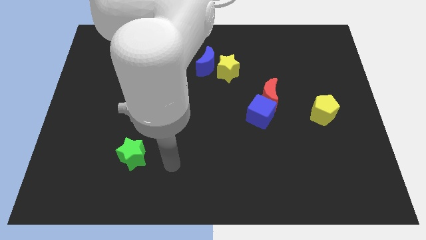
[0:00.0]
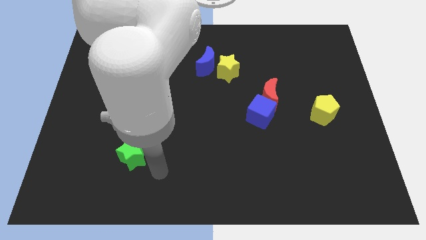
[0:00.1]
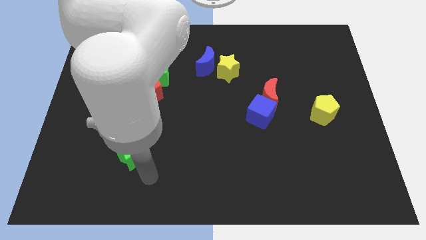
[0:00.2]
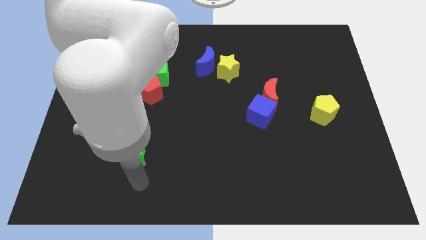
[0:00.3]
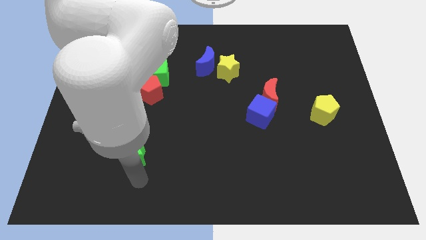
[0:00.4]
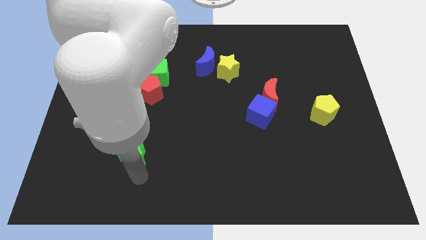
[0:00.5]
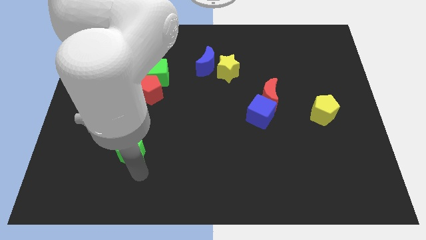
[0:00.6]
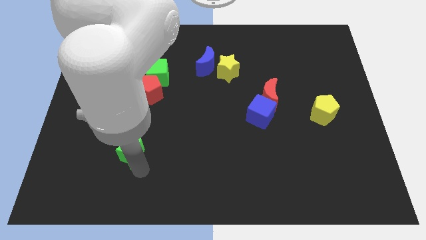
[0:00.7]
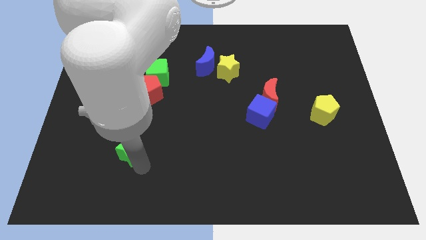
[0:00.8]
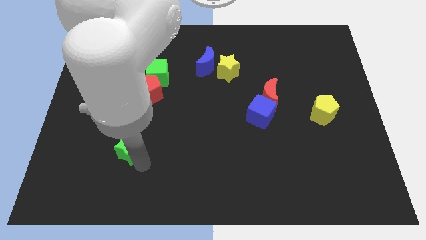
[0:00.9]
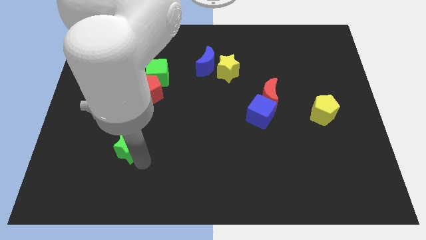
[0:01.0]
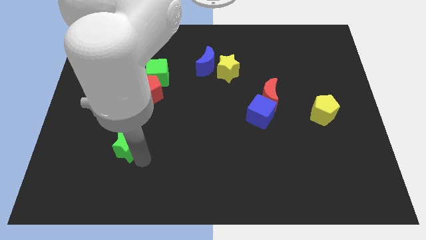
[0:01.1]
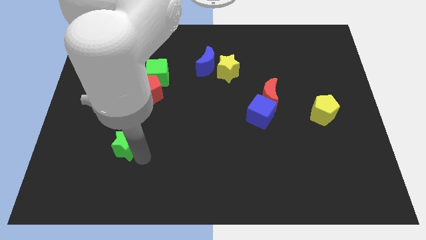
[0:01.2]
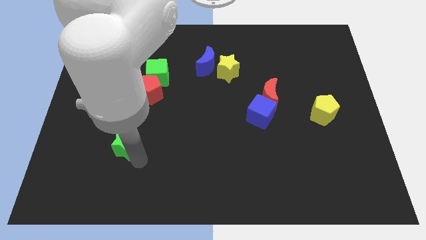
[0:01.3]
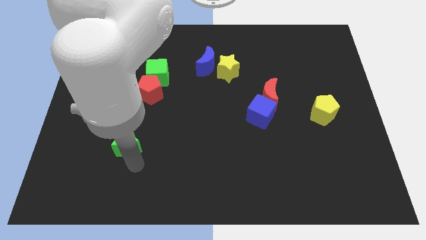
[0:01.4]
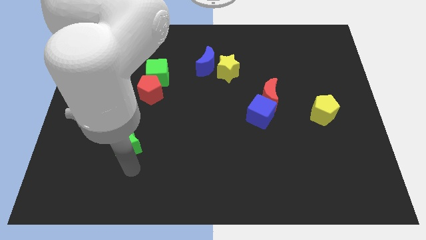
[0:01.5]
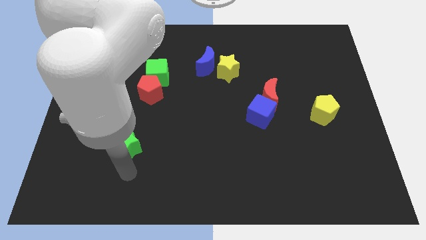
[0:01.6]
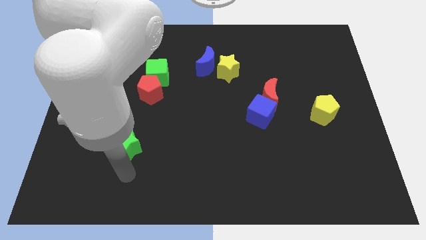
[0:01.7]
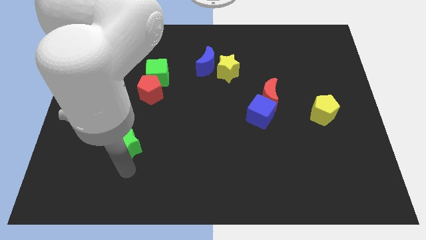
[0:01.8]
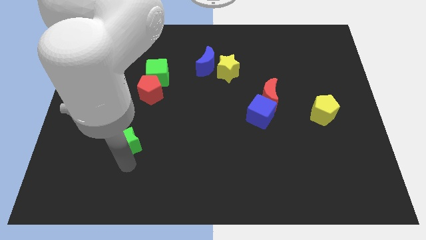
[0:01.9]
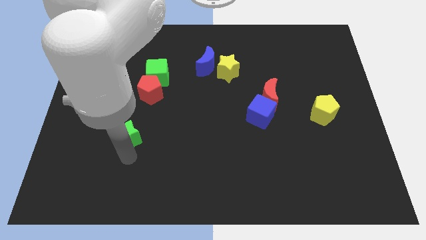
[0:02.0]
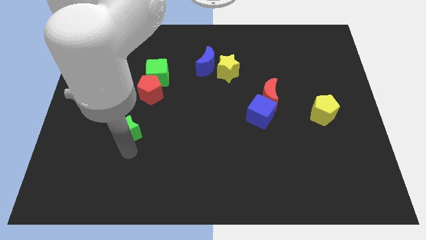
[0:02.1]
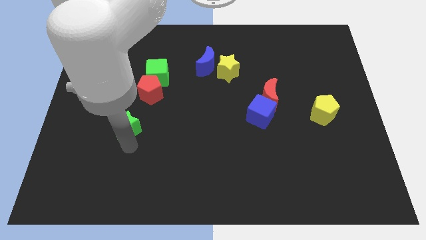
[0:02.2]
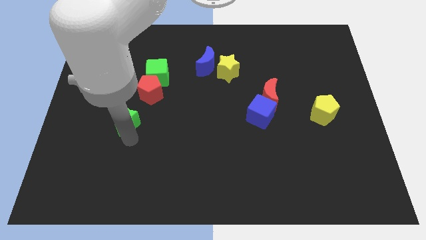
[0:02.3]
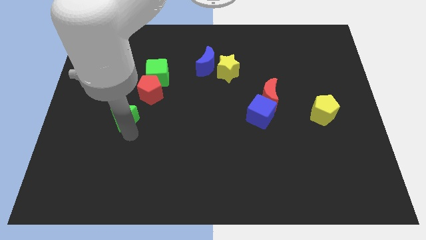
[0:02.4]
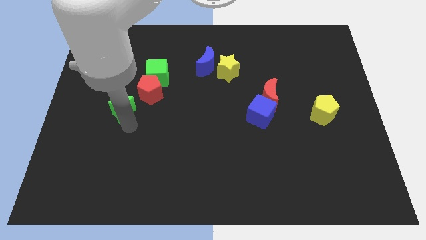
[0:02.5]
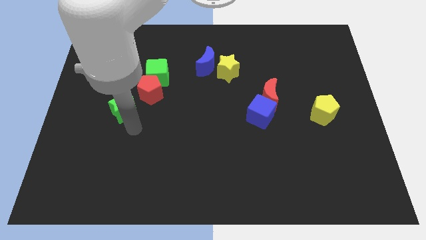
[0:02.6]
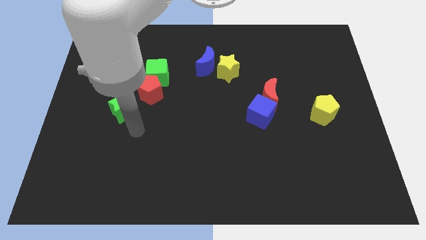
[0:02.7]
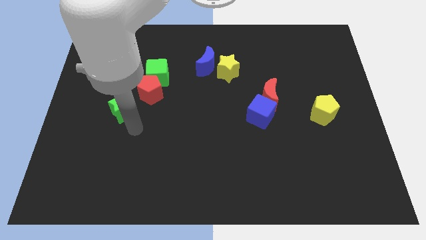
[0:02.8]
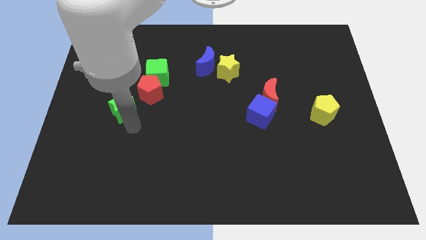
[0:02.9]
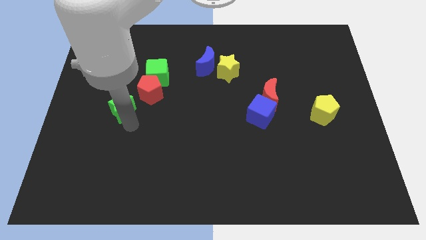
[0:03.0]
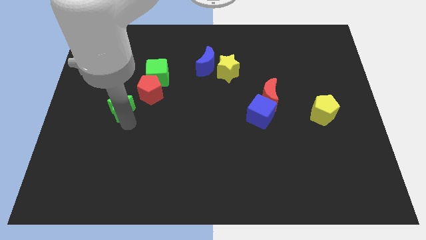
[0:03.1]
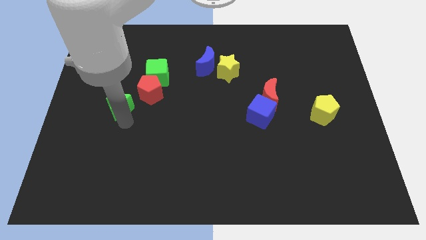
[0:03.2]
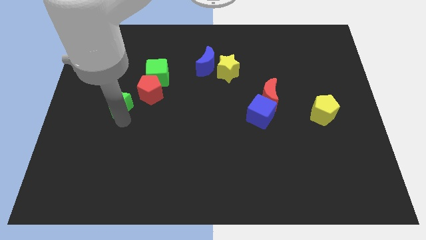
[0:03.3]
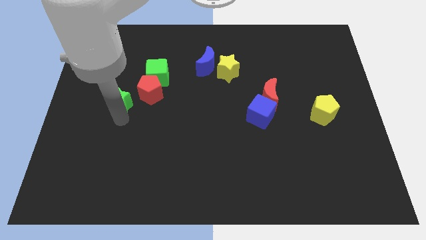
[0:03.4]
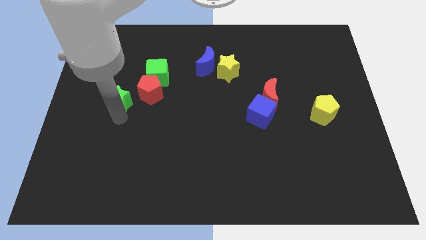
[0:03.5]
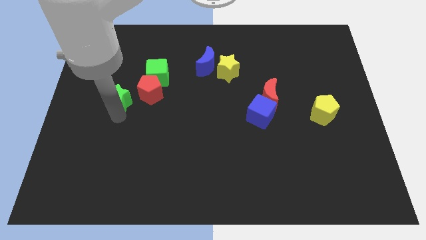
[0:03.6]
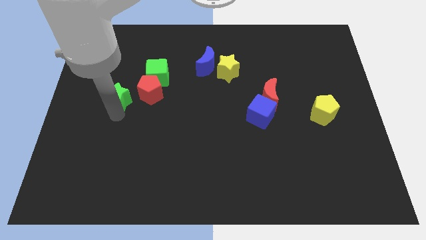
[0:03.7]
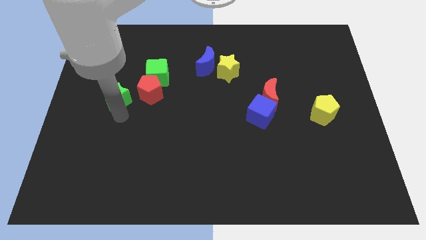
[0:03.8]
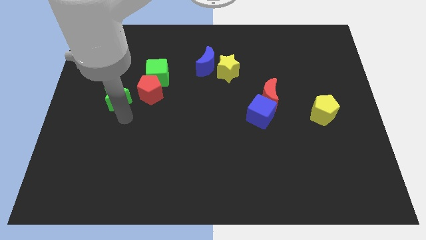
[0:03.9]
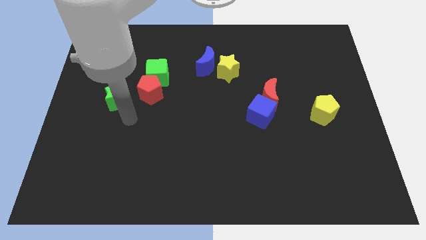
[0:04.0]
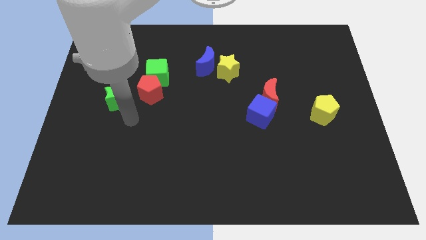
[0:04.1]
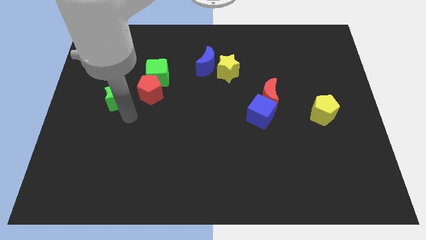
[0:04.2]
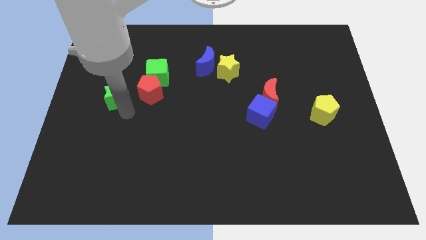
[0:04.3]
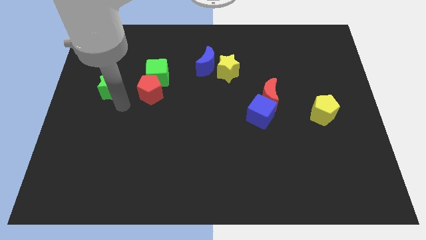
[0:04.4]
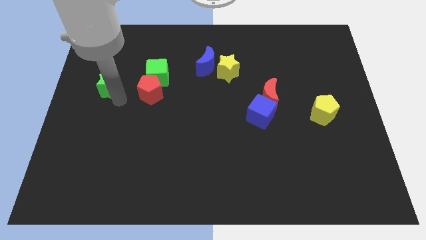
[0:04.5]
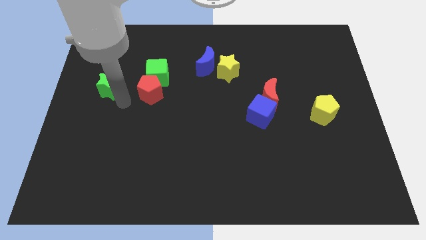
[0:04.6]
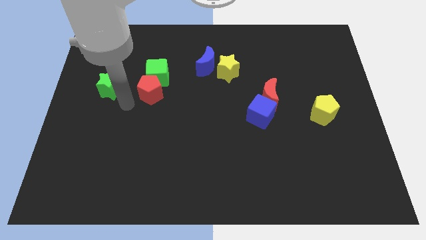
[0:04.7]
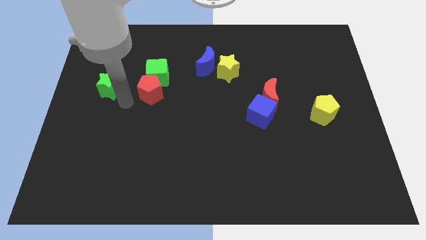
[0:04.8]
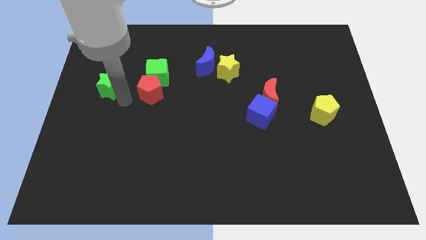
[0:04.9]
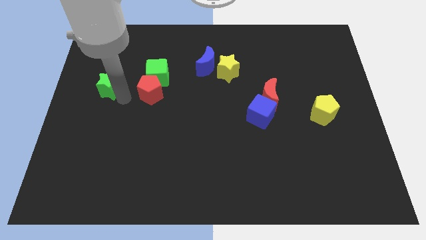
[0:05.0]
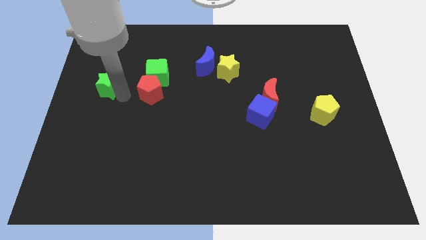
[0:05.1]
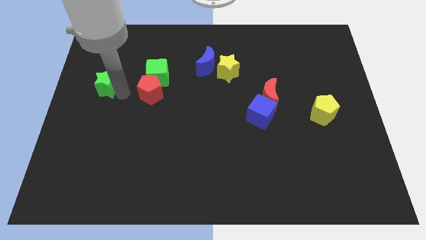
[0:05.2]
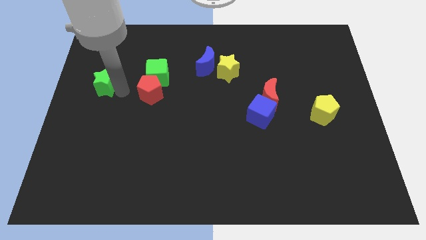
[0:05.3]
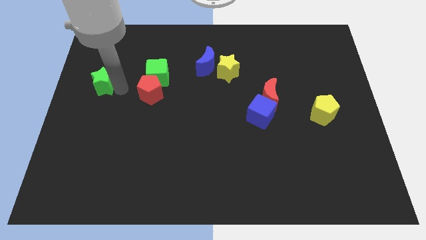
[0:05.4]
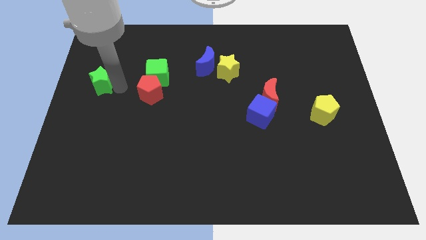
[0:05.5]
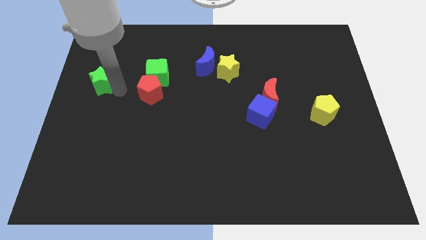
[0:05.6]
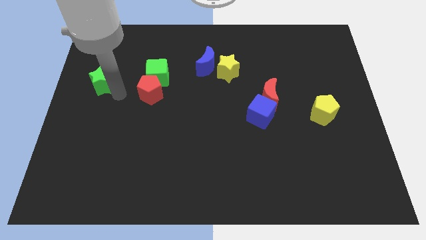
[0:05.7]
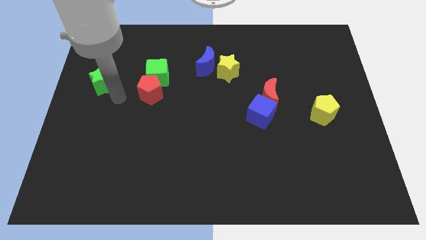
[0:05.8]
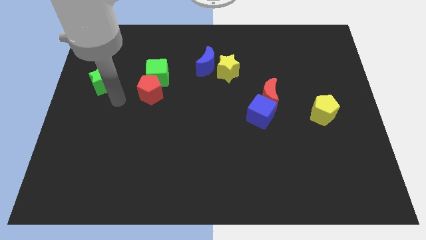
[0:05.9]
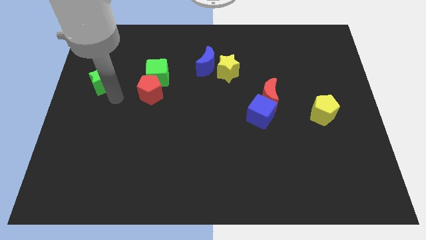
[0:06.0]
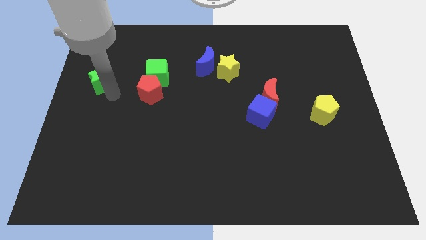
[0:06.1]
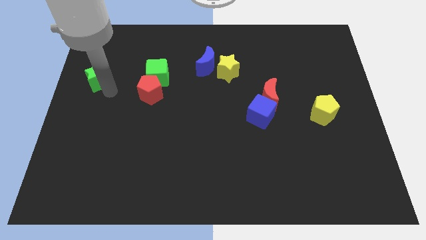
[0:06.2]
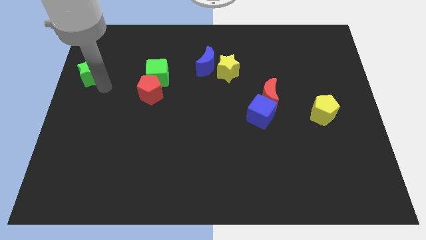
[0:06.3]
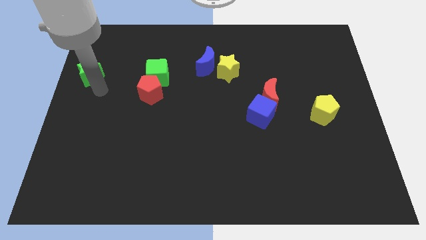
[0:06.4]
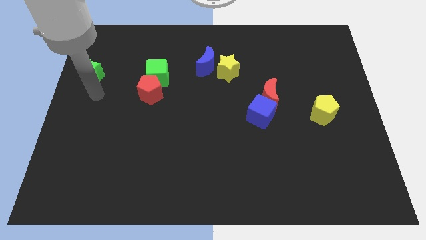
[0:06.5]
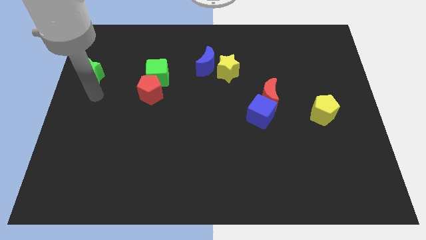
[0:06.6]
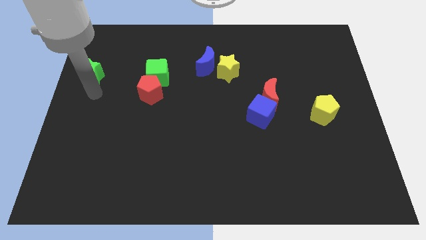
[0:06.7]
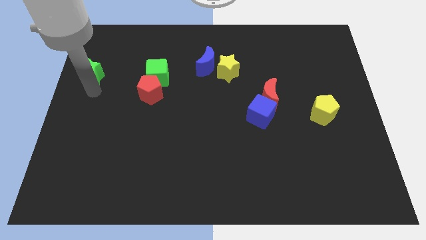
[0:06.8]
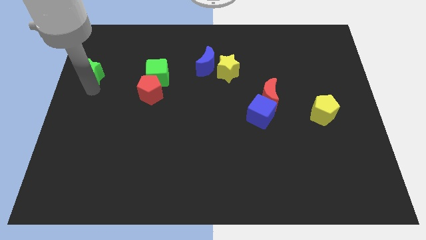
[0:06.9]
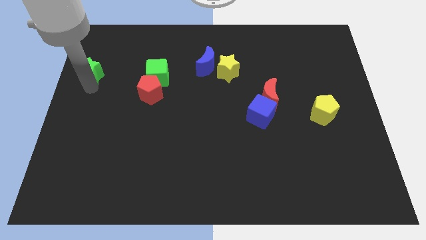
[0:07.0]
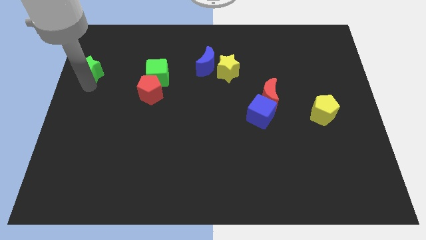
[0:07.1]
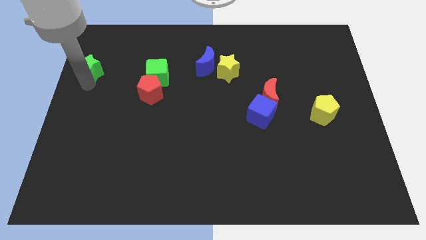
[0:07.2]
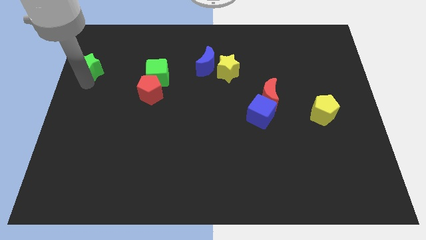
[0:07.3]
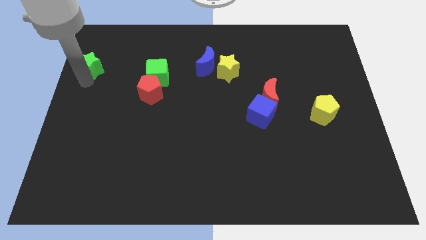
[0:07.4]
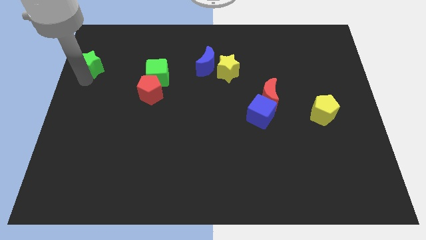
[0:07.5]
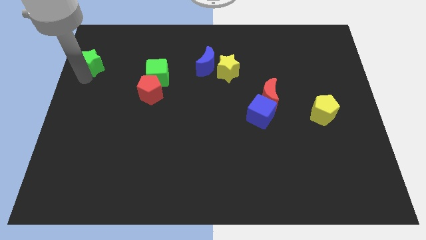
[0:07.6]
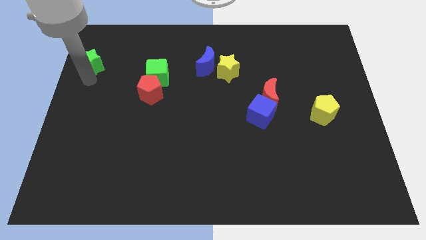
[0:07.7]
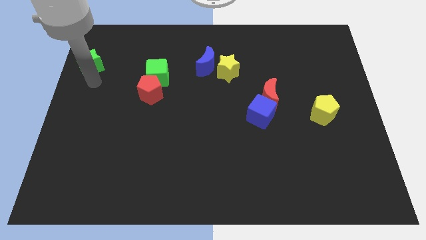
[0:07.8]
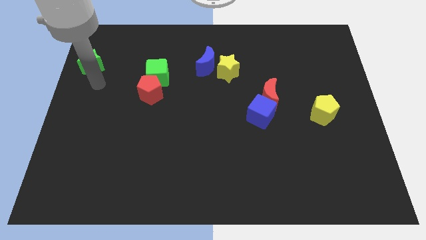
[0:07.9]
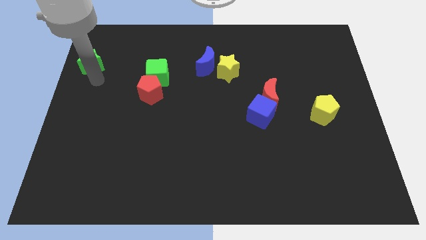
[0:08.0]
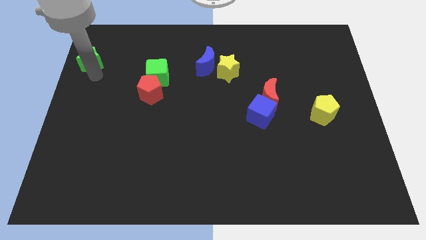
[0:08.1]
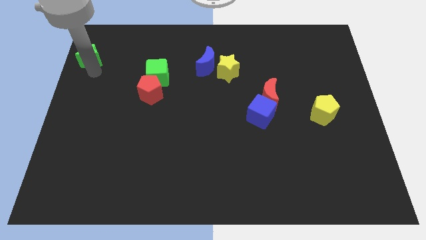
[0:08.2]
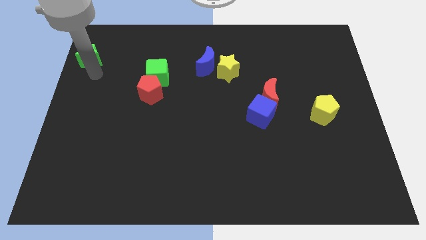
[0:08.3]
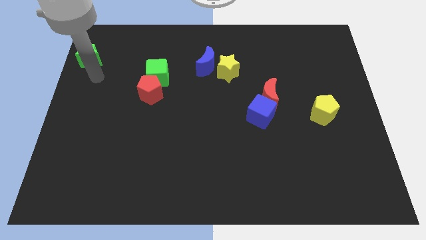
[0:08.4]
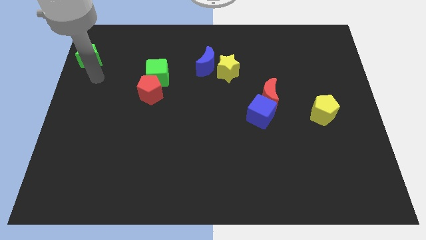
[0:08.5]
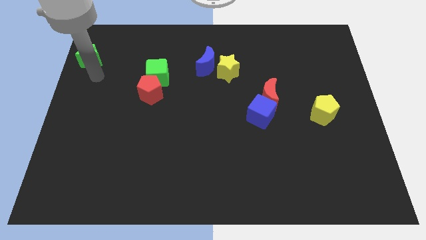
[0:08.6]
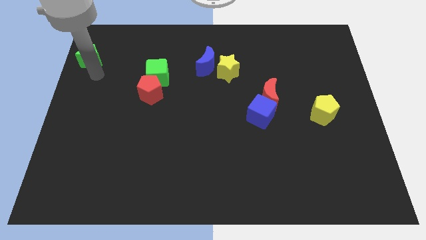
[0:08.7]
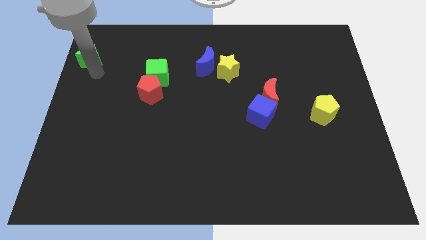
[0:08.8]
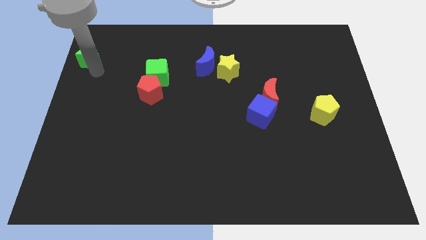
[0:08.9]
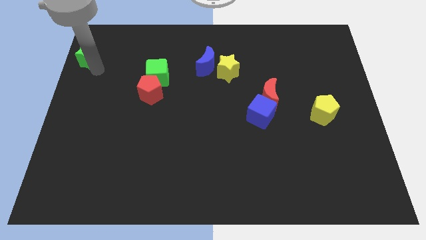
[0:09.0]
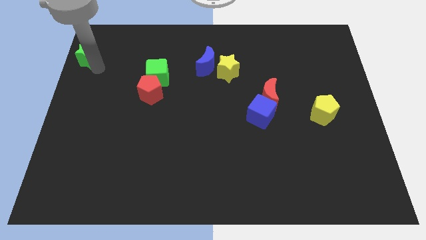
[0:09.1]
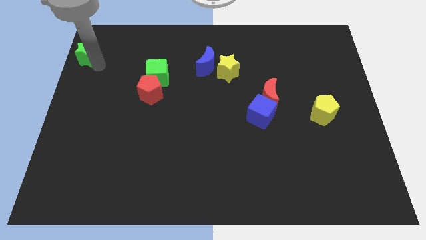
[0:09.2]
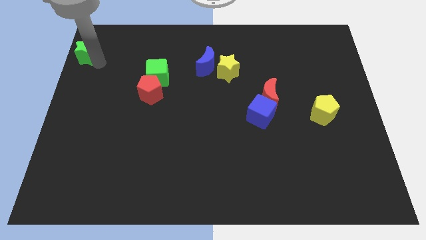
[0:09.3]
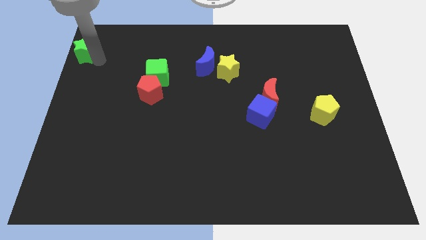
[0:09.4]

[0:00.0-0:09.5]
move the green star to the top left of the board
